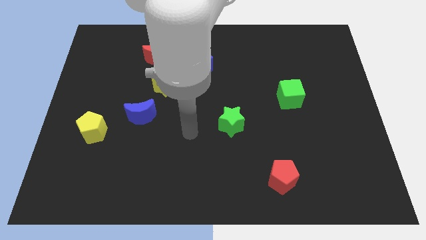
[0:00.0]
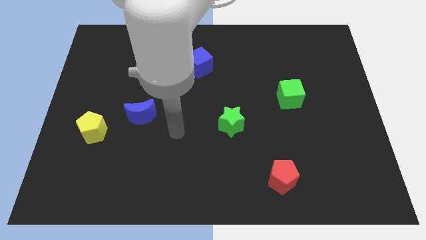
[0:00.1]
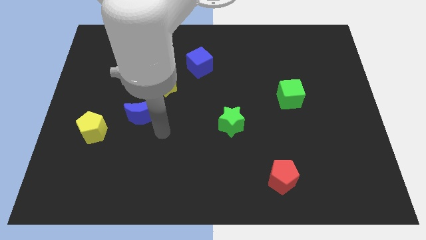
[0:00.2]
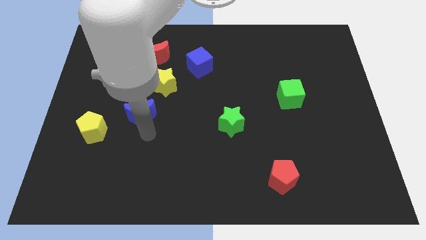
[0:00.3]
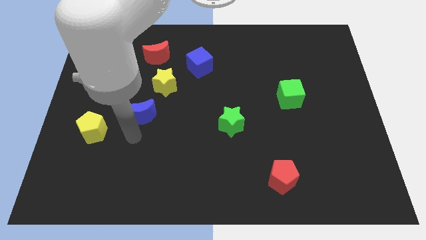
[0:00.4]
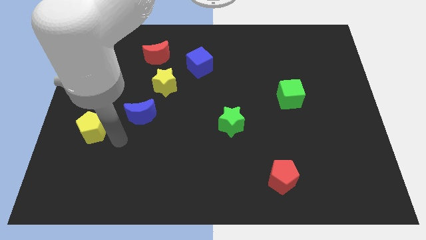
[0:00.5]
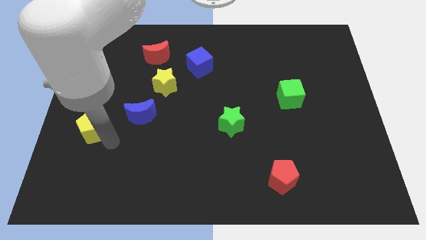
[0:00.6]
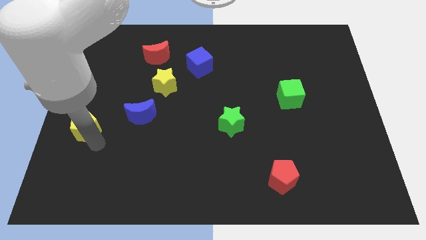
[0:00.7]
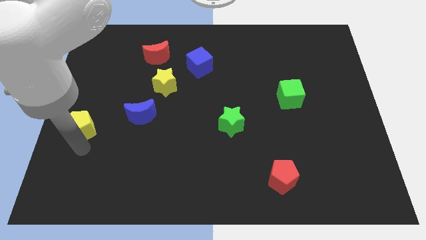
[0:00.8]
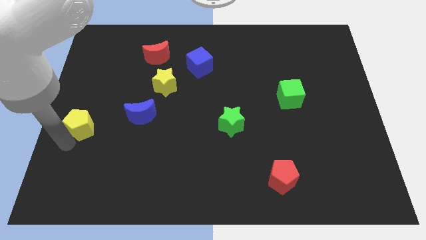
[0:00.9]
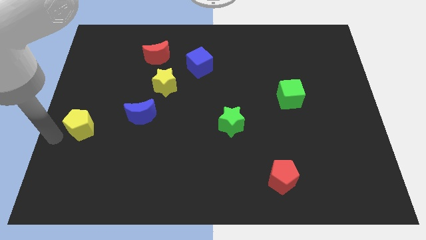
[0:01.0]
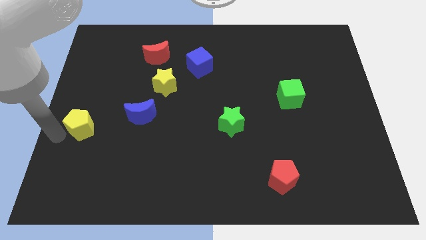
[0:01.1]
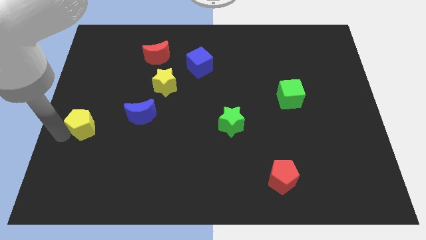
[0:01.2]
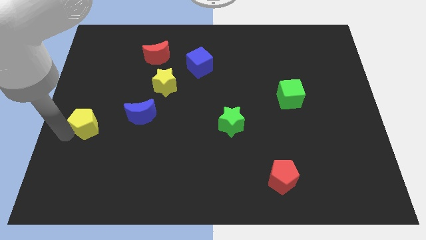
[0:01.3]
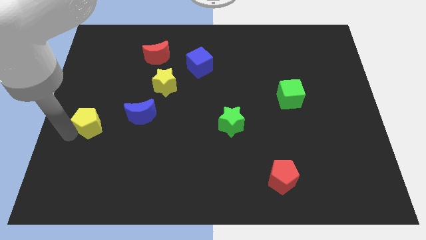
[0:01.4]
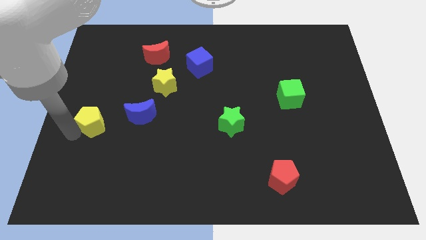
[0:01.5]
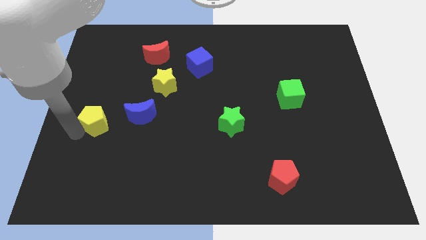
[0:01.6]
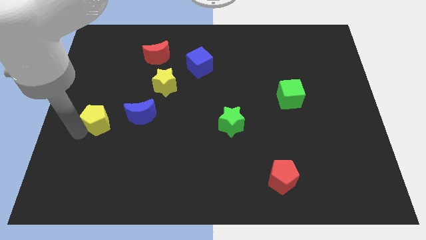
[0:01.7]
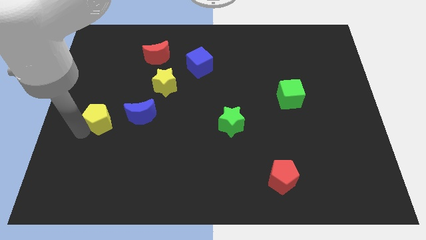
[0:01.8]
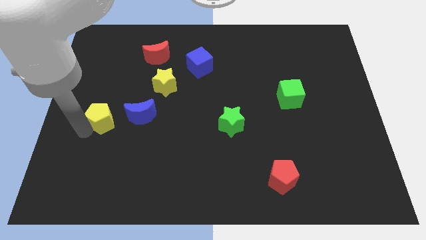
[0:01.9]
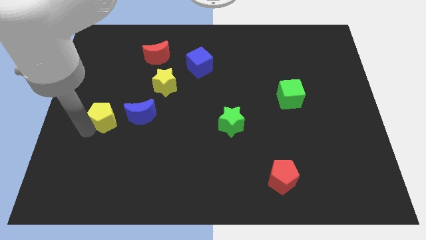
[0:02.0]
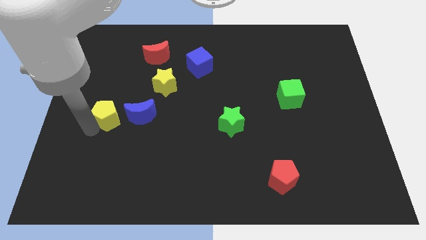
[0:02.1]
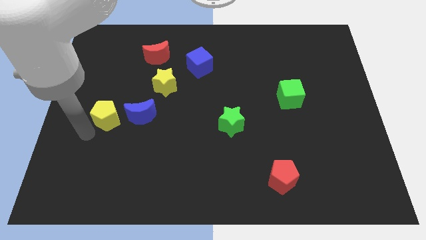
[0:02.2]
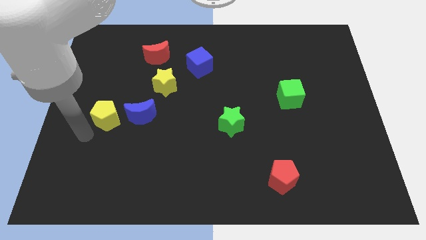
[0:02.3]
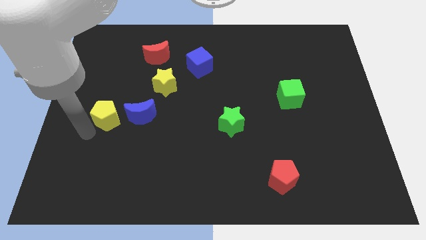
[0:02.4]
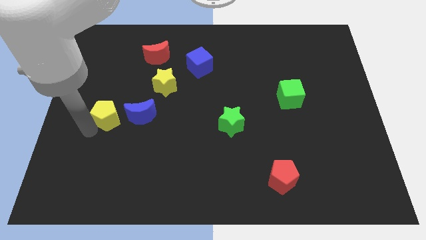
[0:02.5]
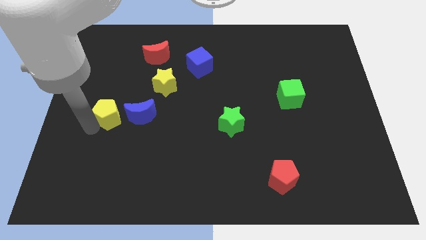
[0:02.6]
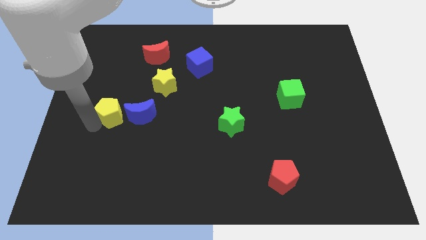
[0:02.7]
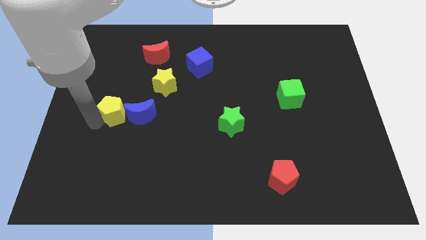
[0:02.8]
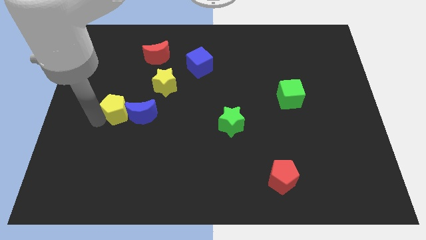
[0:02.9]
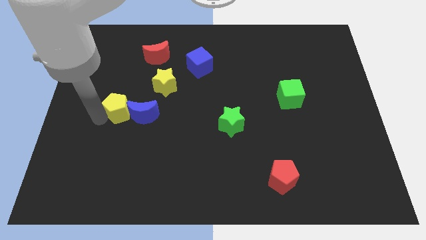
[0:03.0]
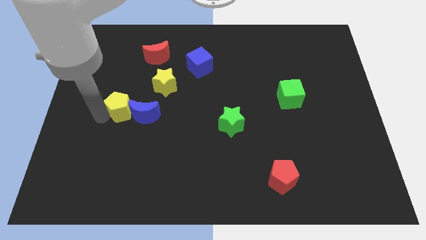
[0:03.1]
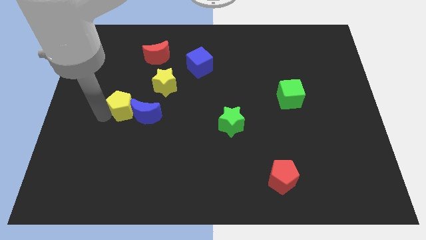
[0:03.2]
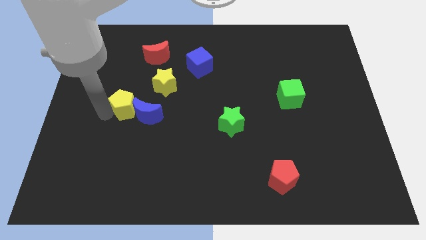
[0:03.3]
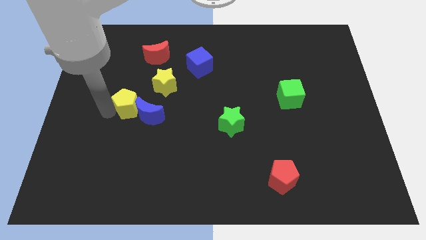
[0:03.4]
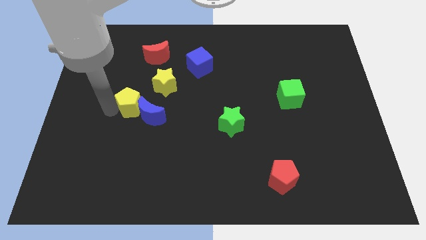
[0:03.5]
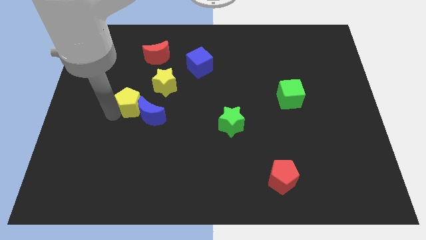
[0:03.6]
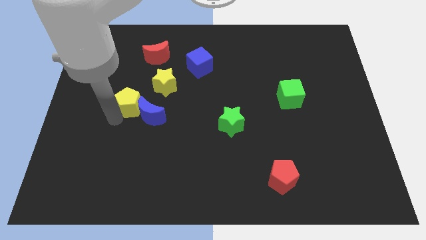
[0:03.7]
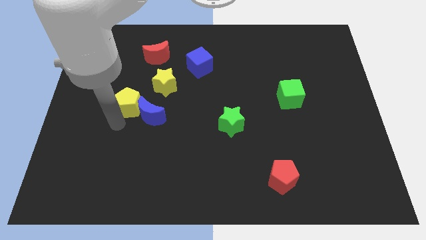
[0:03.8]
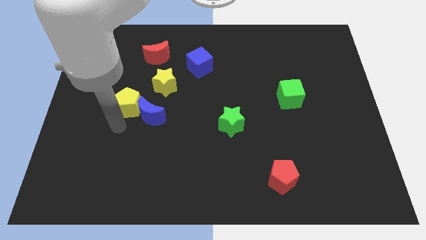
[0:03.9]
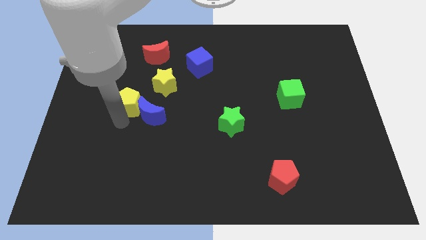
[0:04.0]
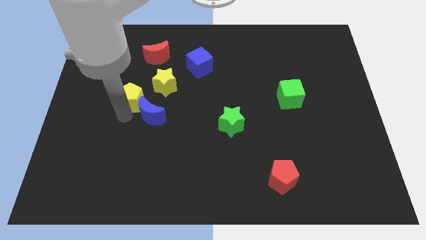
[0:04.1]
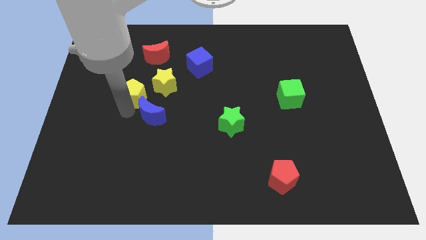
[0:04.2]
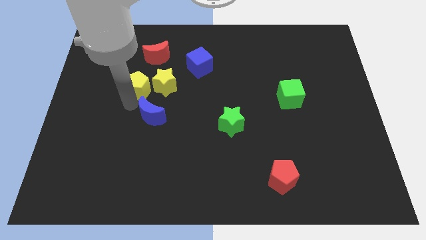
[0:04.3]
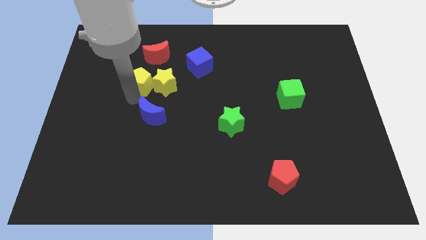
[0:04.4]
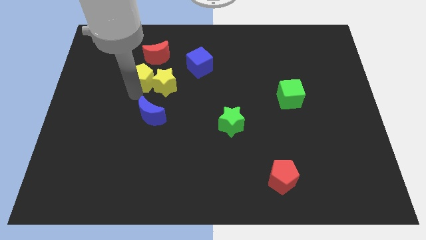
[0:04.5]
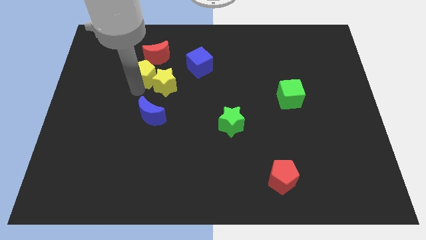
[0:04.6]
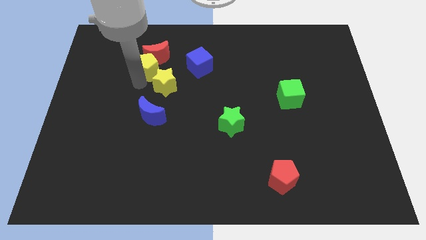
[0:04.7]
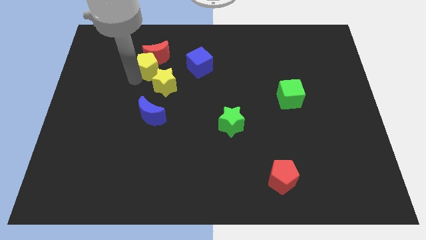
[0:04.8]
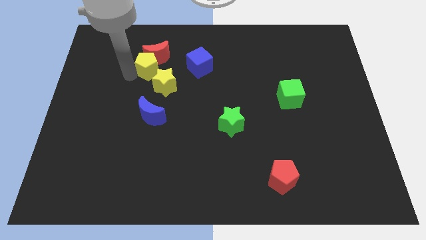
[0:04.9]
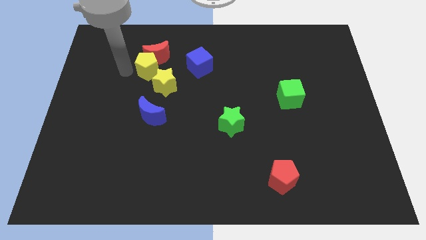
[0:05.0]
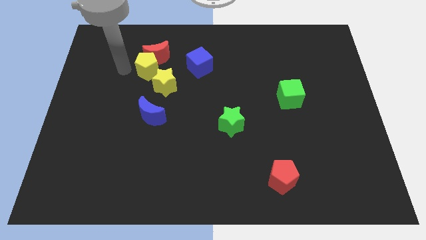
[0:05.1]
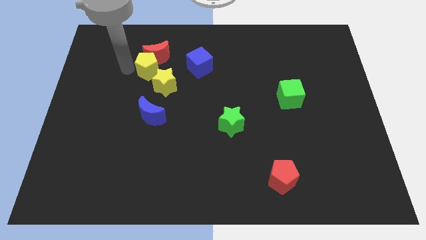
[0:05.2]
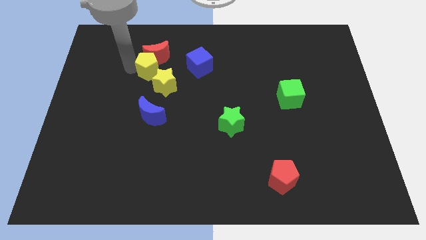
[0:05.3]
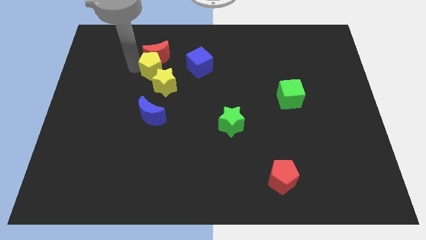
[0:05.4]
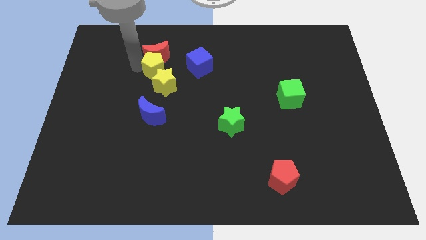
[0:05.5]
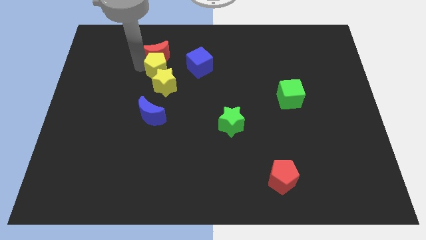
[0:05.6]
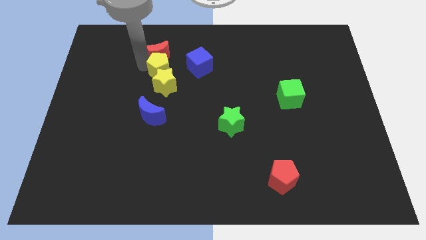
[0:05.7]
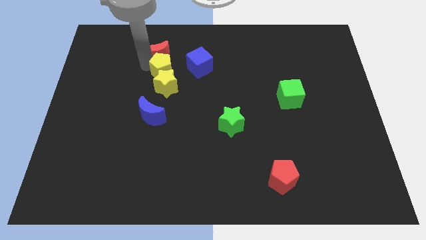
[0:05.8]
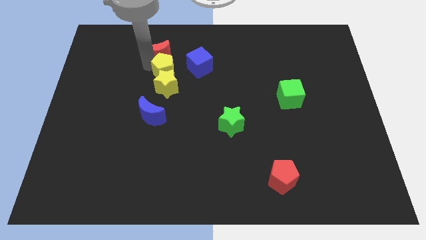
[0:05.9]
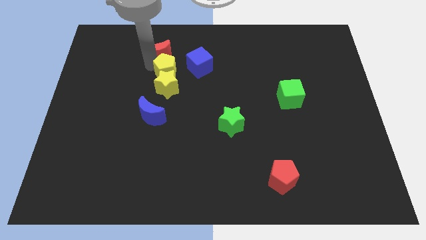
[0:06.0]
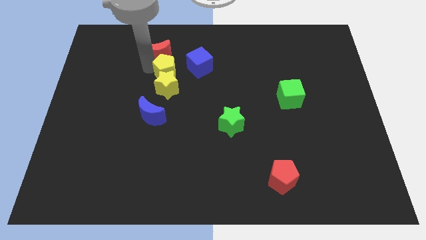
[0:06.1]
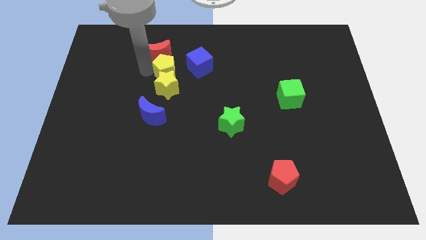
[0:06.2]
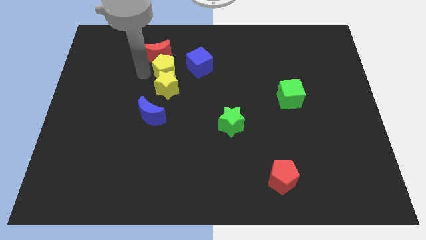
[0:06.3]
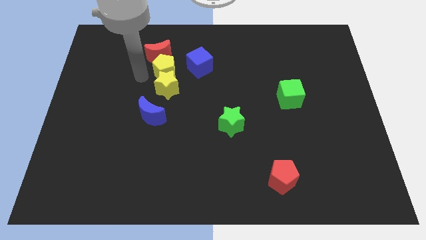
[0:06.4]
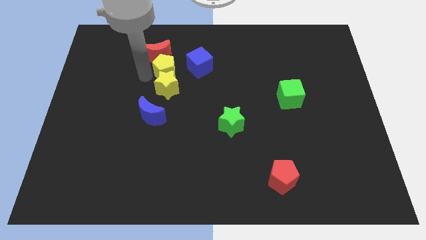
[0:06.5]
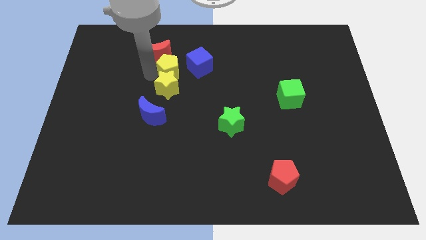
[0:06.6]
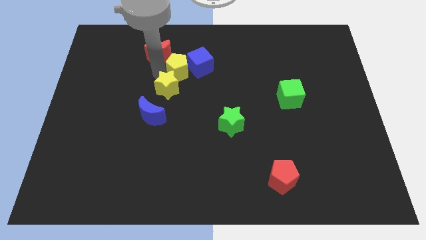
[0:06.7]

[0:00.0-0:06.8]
push the yellow pentagon to the blue cube

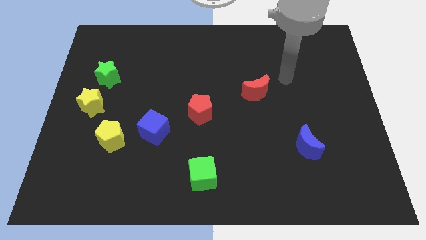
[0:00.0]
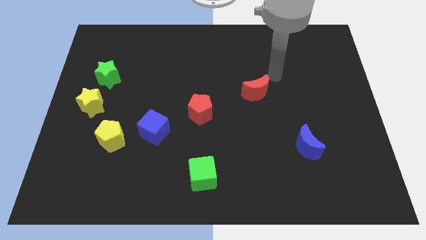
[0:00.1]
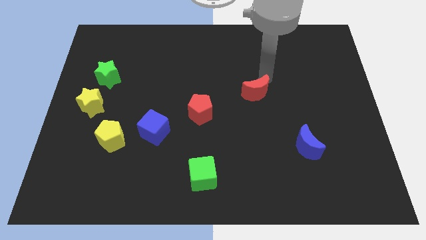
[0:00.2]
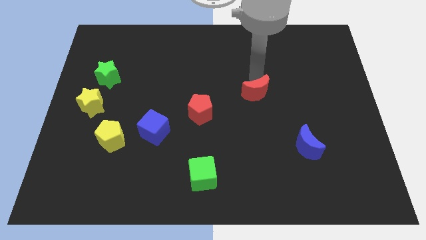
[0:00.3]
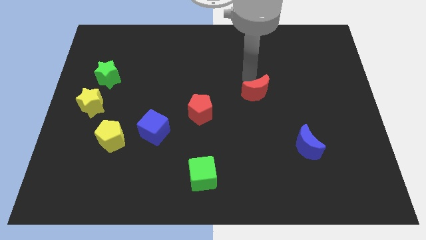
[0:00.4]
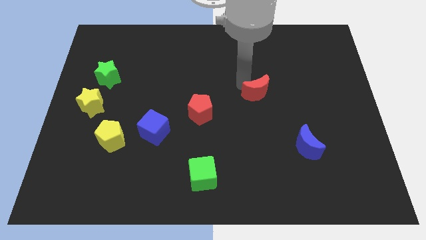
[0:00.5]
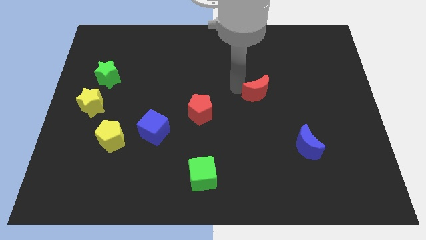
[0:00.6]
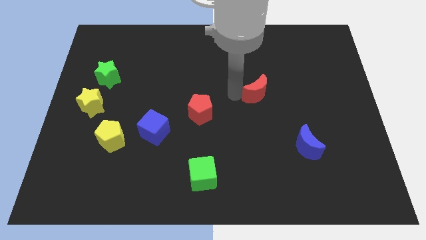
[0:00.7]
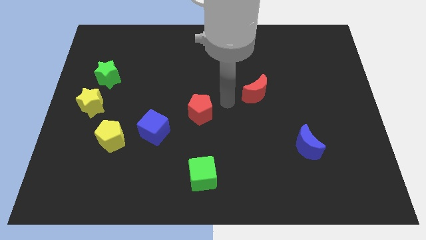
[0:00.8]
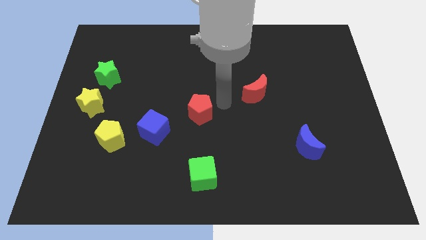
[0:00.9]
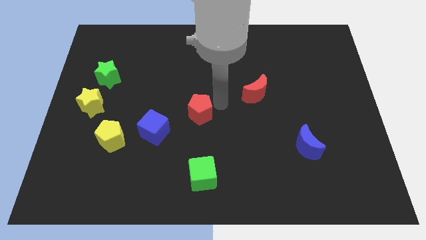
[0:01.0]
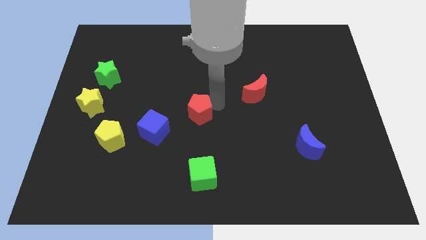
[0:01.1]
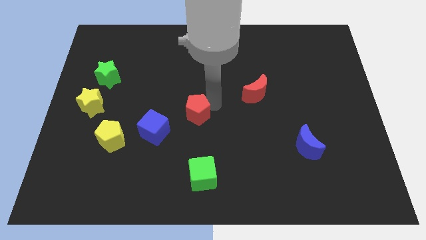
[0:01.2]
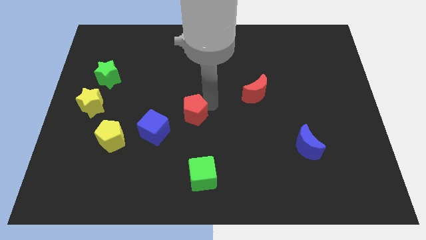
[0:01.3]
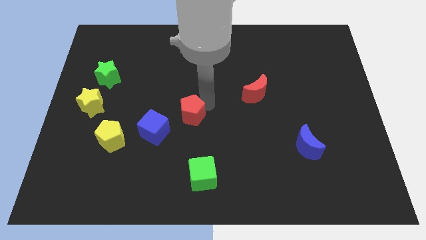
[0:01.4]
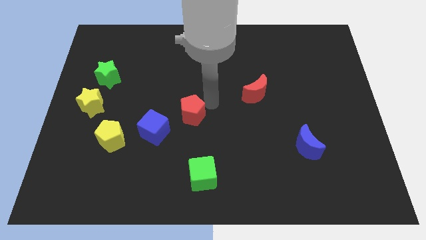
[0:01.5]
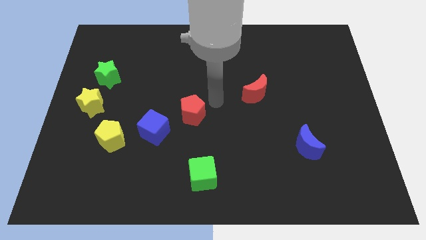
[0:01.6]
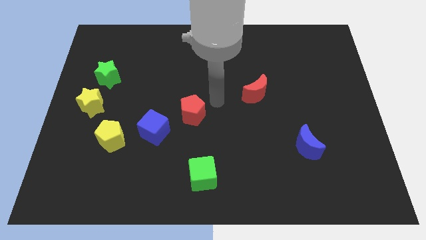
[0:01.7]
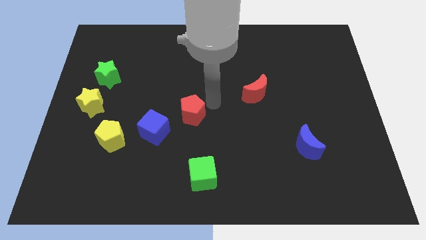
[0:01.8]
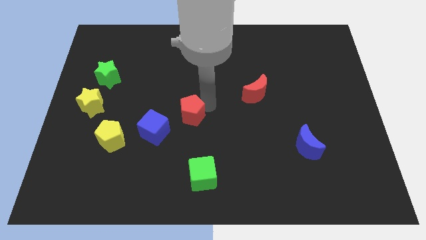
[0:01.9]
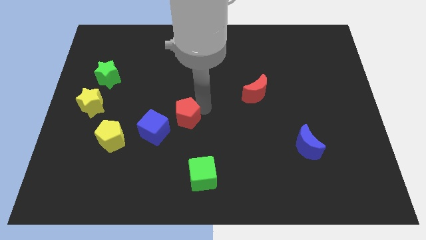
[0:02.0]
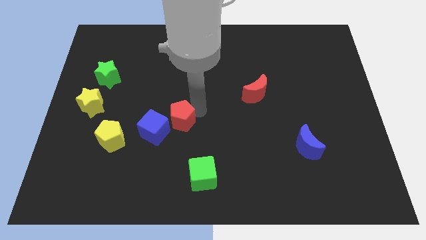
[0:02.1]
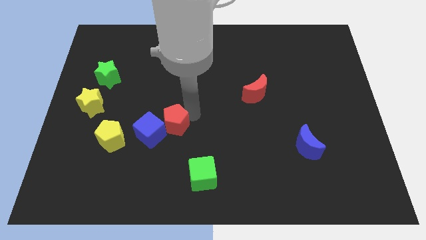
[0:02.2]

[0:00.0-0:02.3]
put the red pentagon towards the blue cube
